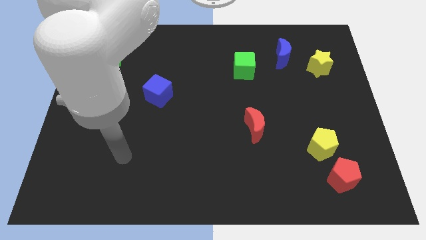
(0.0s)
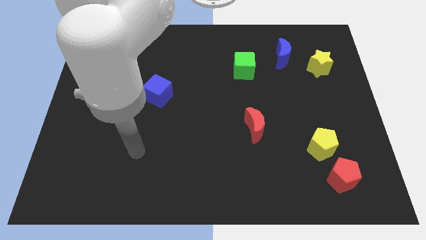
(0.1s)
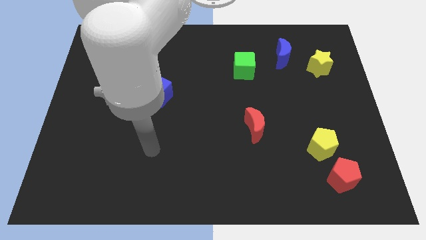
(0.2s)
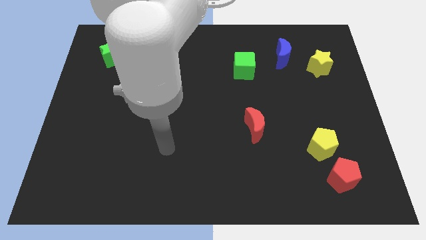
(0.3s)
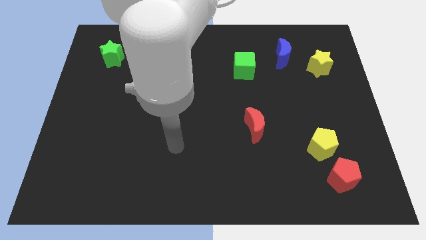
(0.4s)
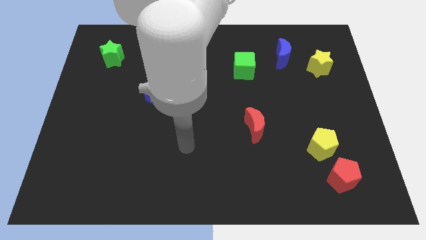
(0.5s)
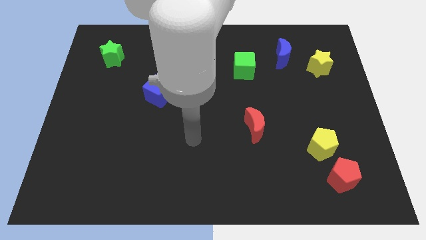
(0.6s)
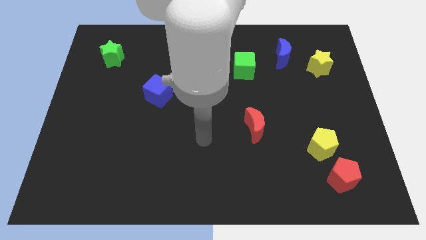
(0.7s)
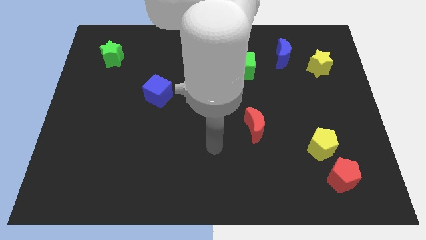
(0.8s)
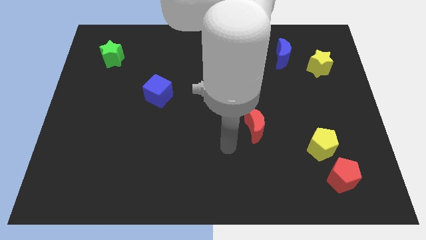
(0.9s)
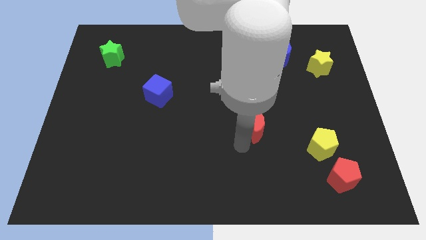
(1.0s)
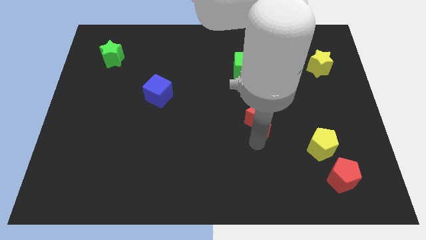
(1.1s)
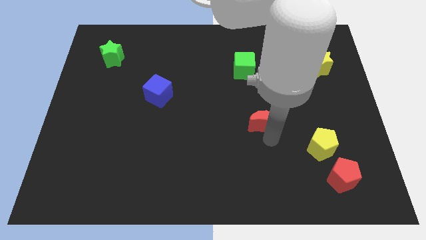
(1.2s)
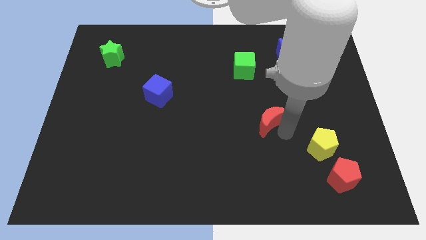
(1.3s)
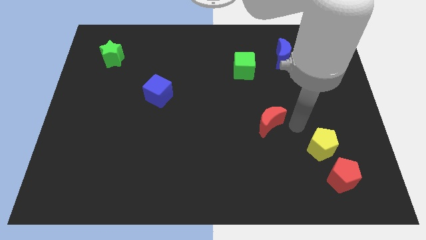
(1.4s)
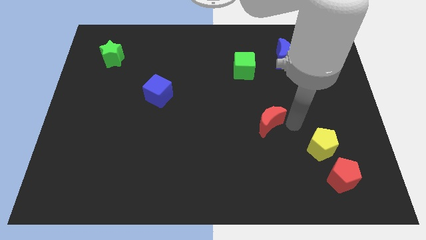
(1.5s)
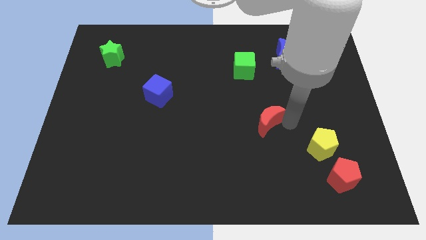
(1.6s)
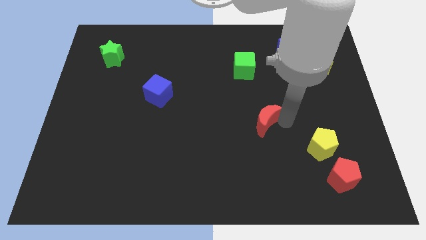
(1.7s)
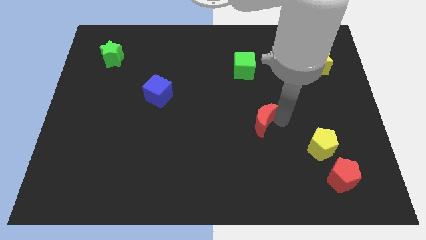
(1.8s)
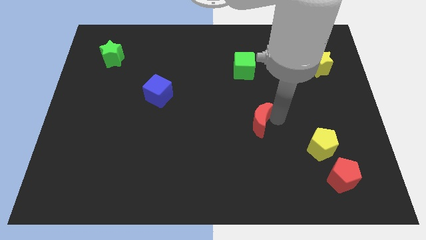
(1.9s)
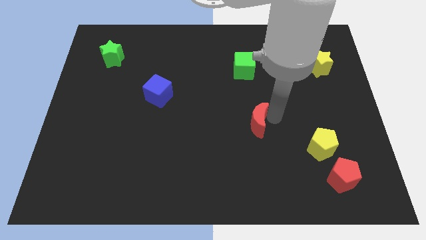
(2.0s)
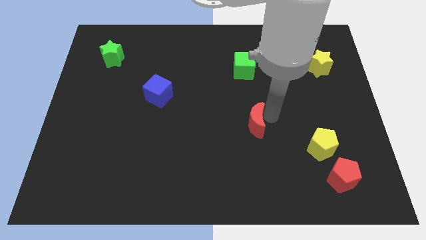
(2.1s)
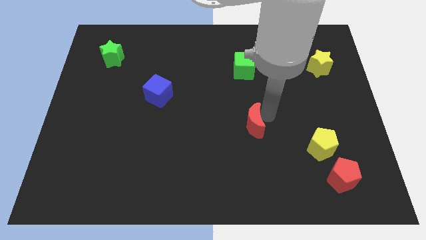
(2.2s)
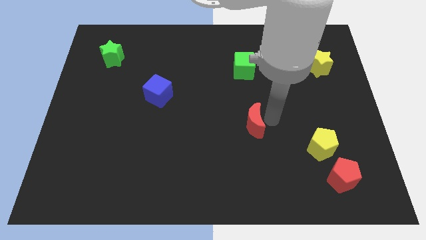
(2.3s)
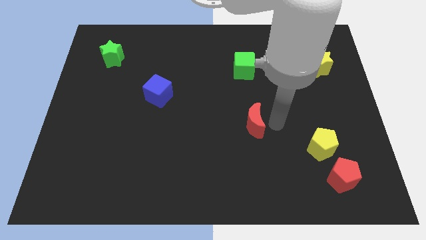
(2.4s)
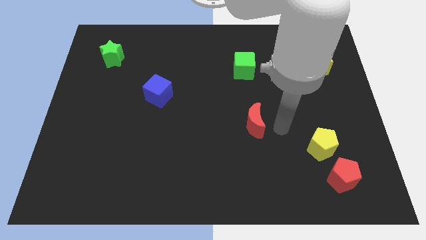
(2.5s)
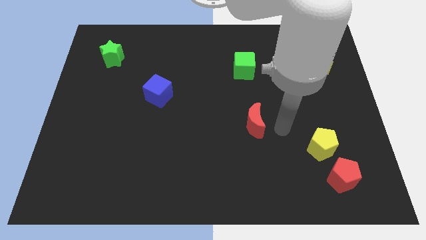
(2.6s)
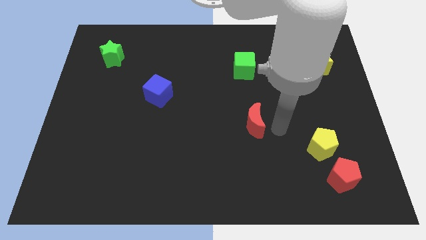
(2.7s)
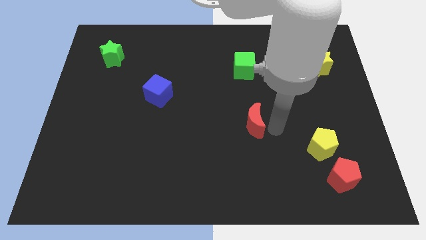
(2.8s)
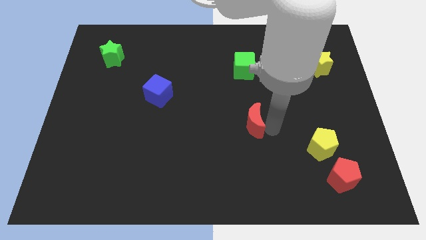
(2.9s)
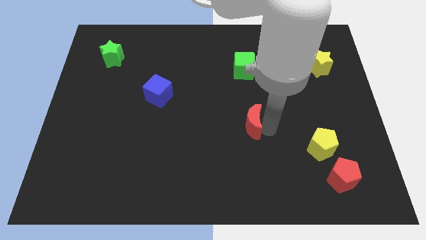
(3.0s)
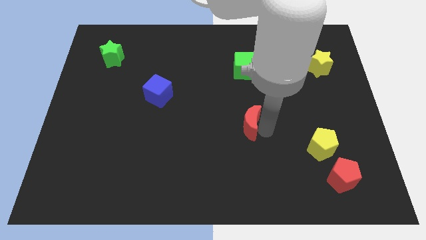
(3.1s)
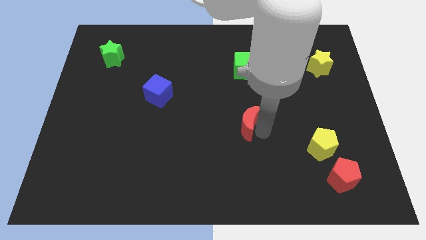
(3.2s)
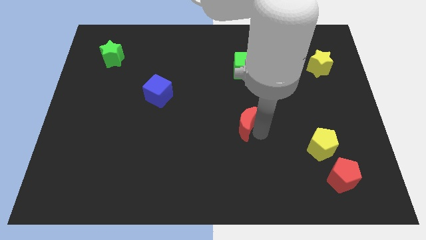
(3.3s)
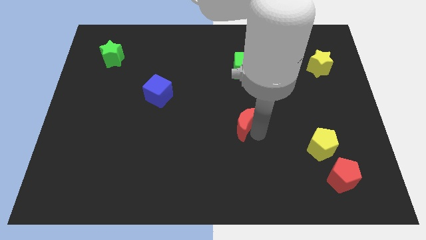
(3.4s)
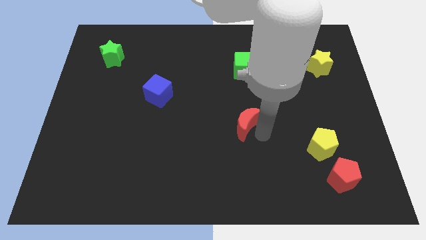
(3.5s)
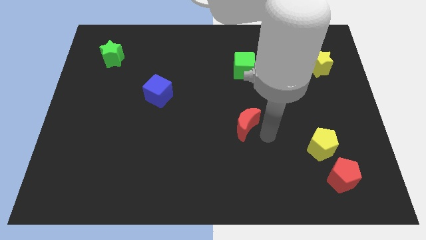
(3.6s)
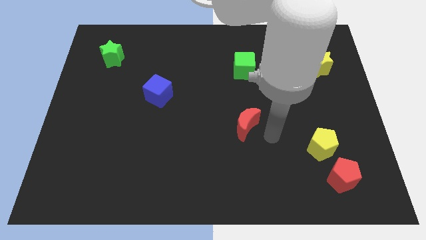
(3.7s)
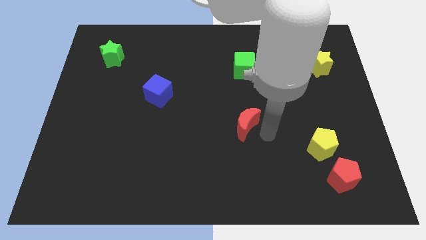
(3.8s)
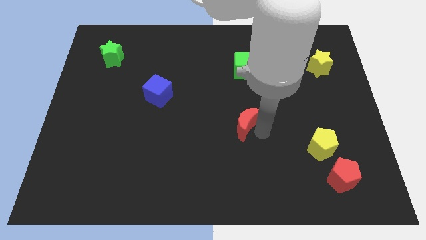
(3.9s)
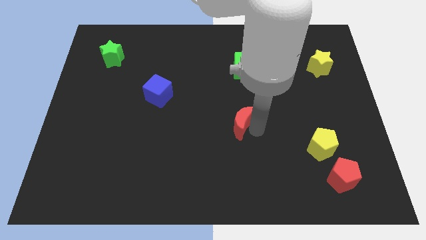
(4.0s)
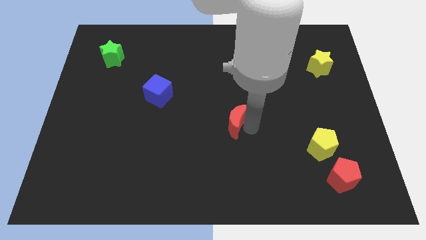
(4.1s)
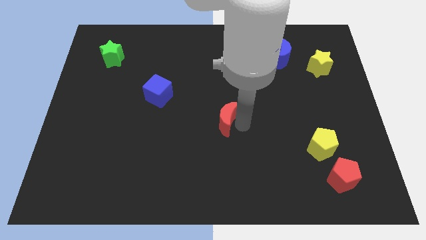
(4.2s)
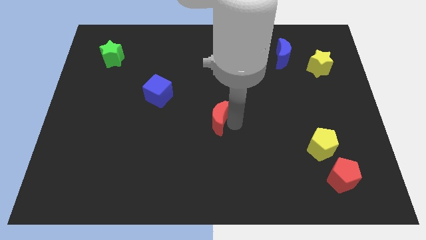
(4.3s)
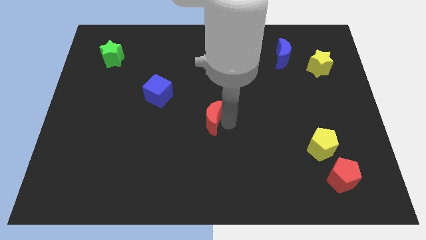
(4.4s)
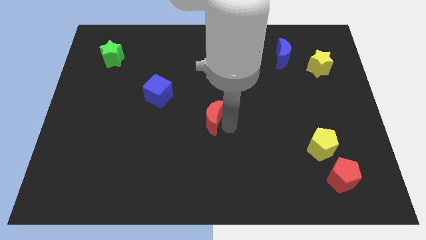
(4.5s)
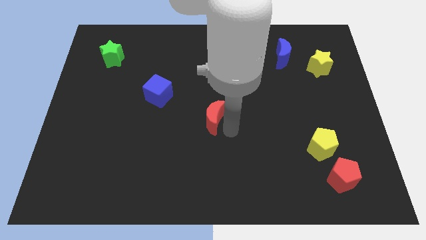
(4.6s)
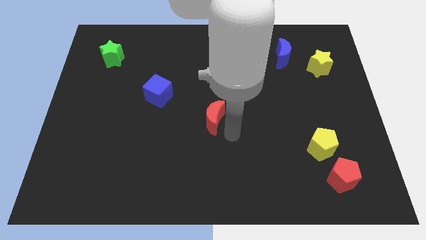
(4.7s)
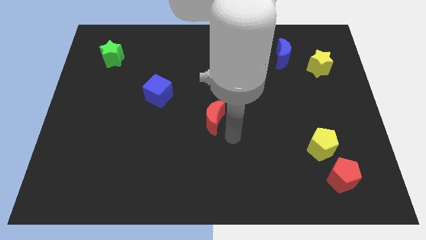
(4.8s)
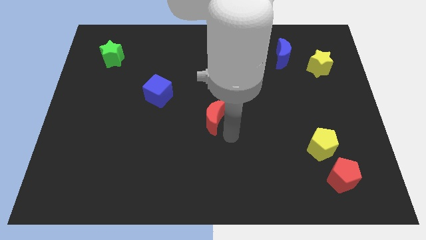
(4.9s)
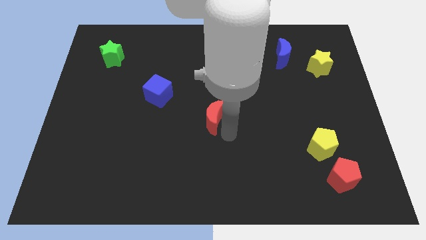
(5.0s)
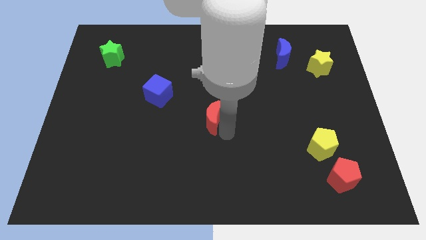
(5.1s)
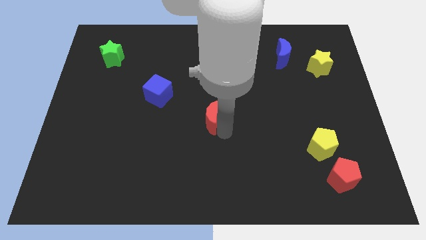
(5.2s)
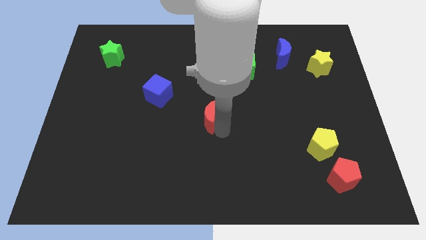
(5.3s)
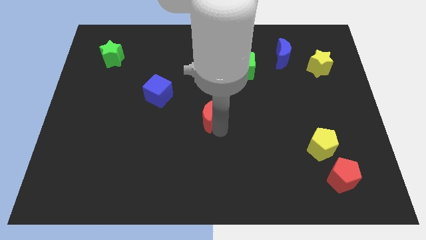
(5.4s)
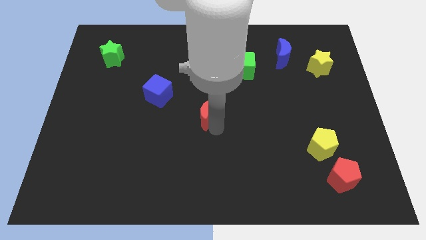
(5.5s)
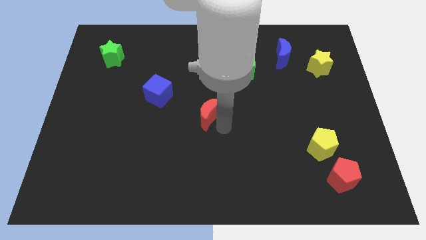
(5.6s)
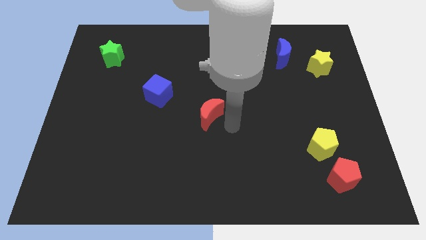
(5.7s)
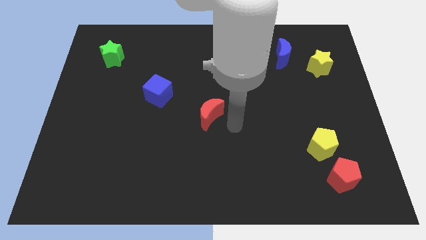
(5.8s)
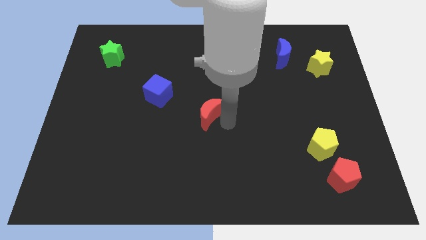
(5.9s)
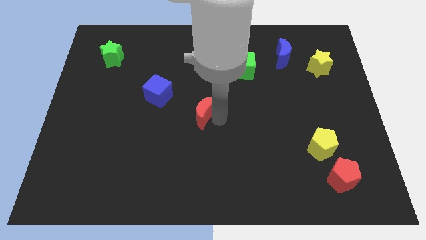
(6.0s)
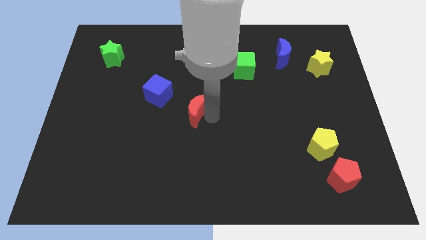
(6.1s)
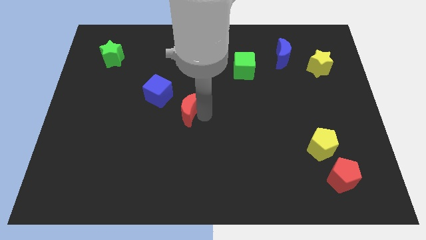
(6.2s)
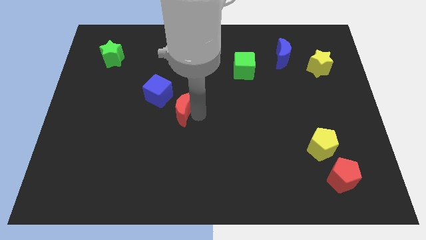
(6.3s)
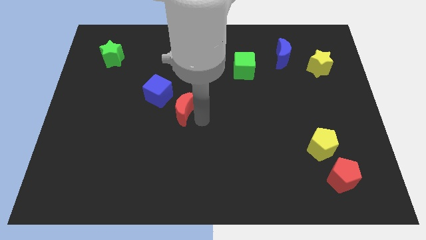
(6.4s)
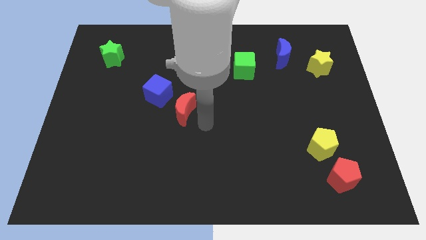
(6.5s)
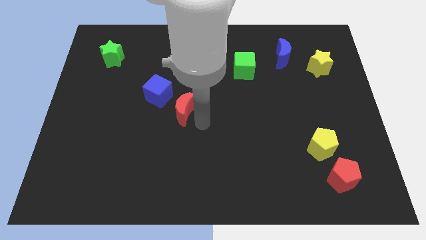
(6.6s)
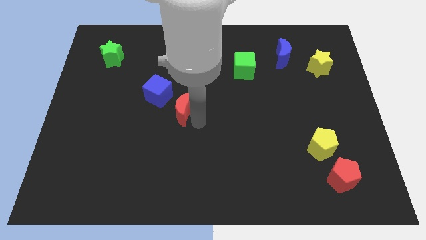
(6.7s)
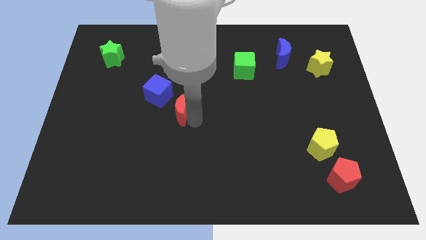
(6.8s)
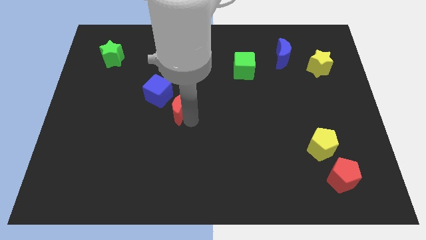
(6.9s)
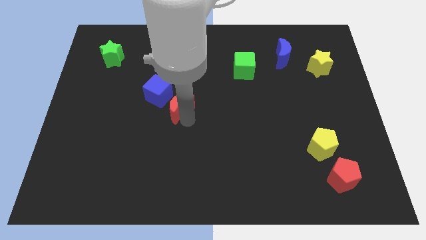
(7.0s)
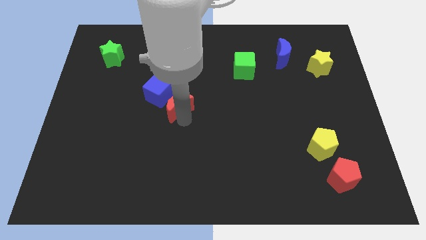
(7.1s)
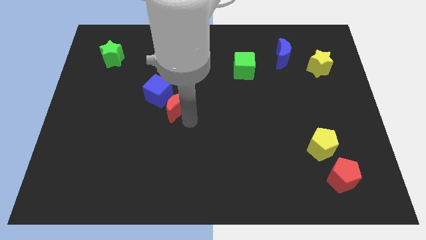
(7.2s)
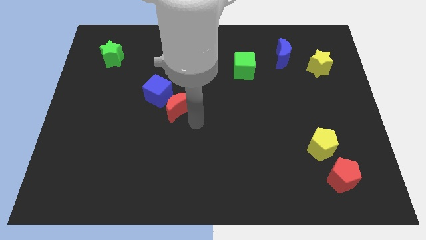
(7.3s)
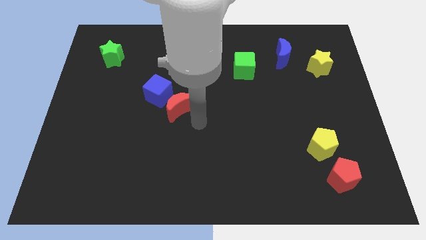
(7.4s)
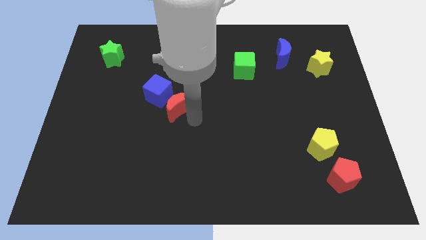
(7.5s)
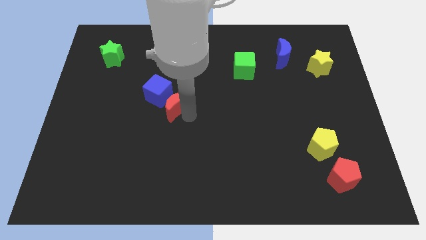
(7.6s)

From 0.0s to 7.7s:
put the red moon next to the blue cube
